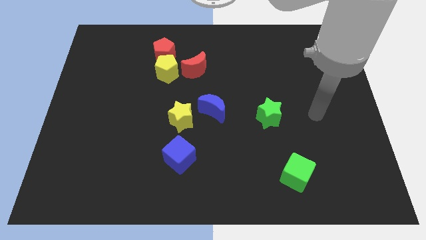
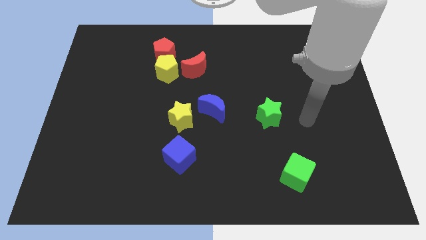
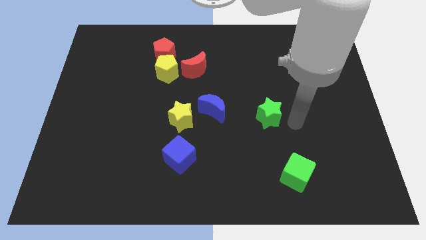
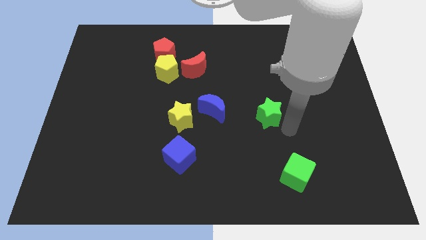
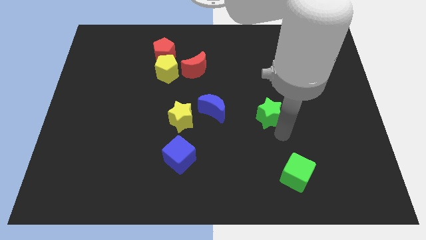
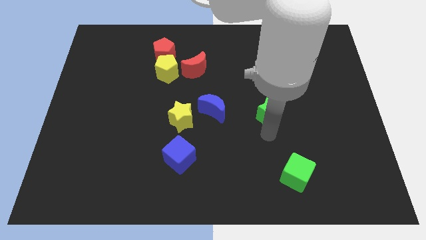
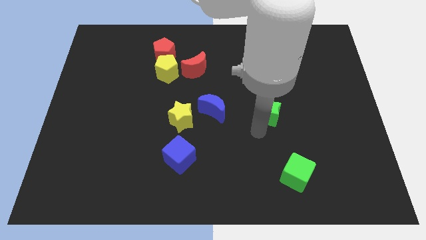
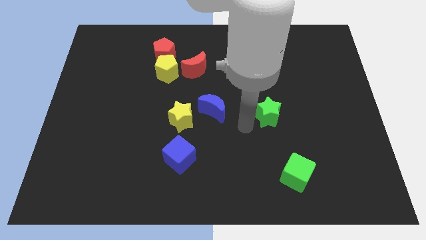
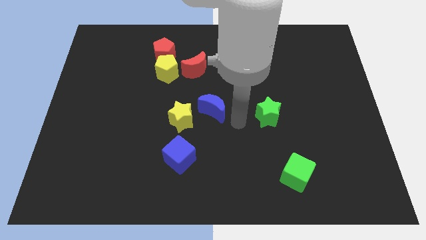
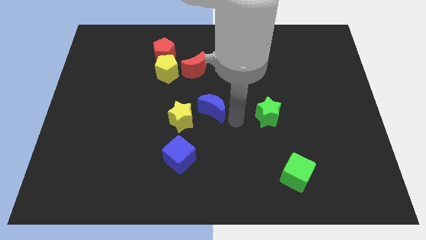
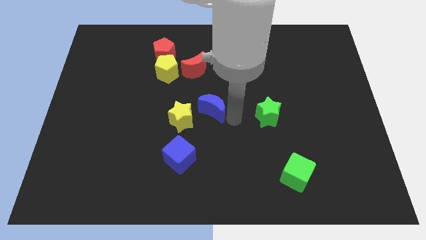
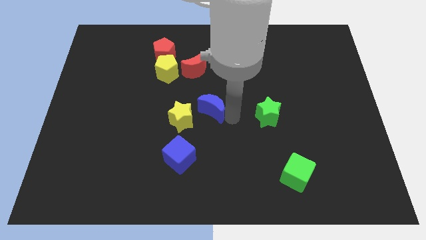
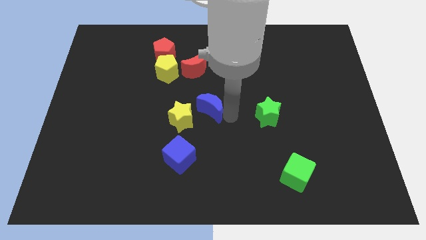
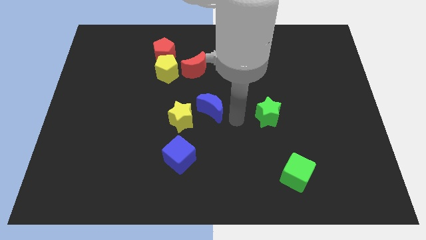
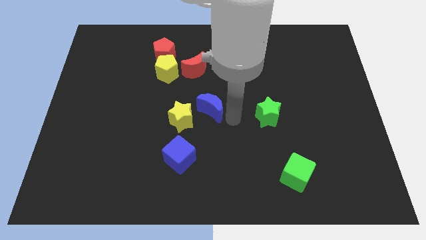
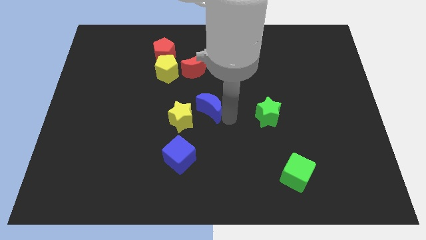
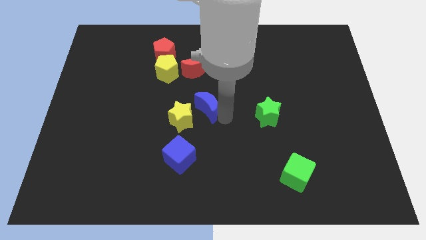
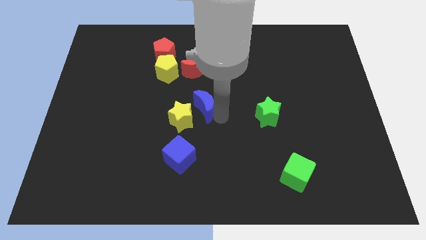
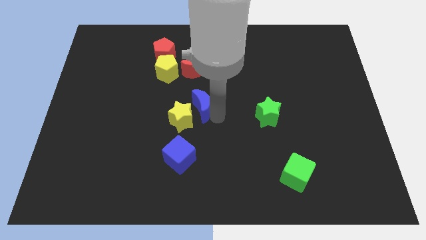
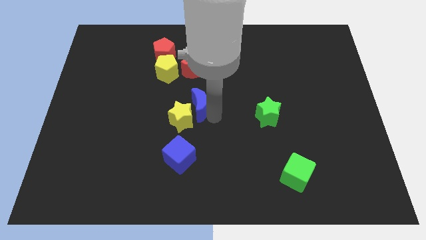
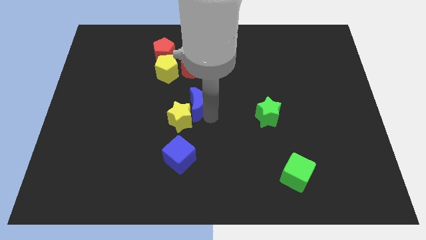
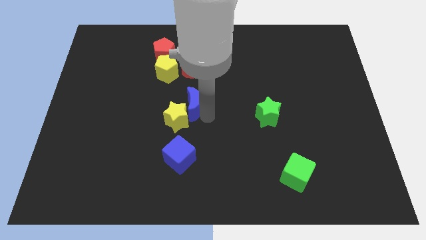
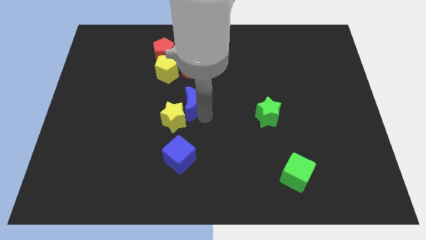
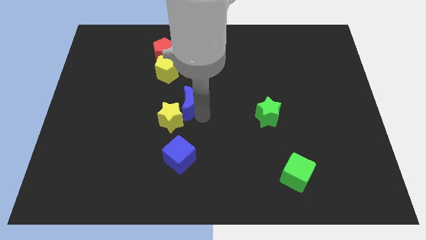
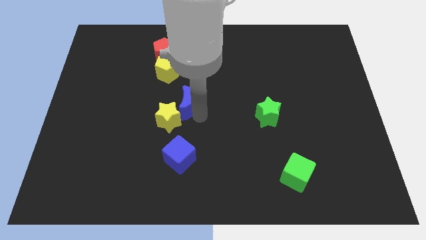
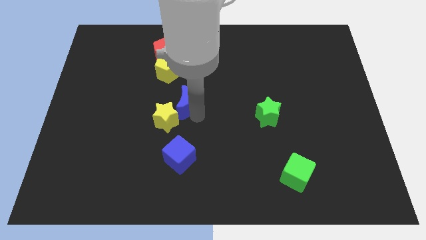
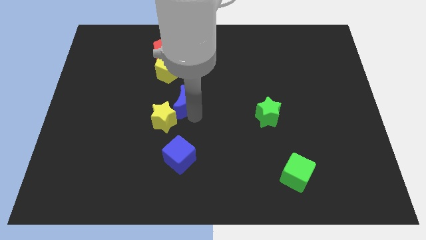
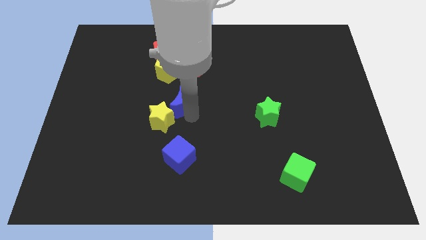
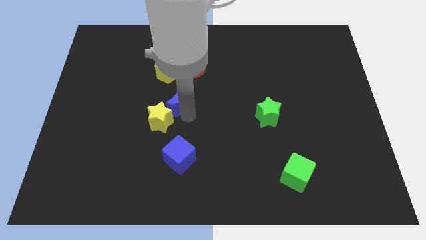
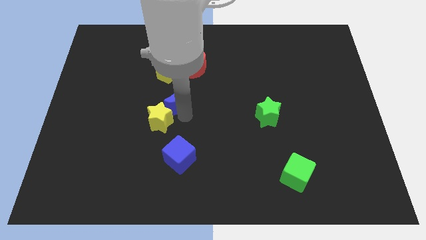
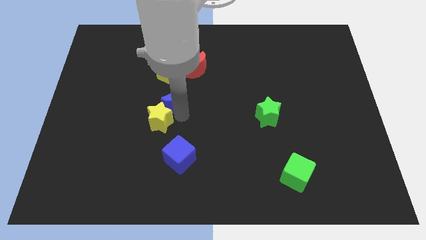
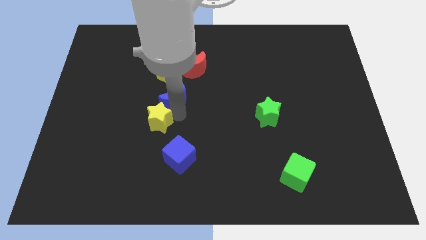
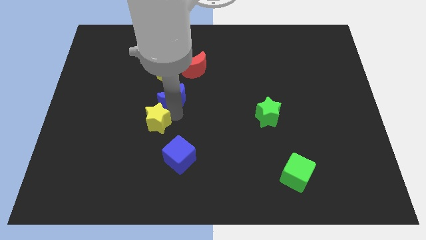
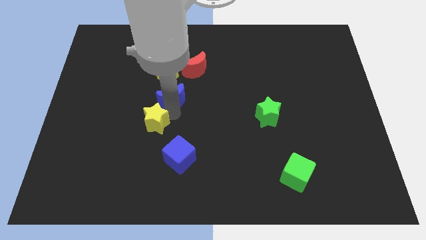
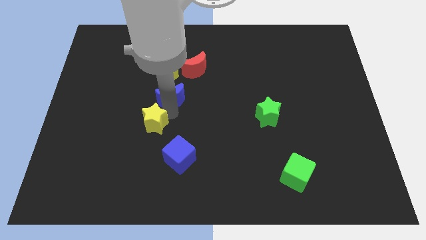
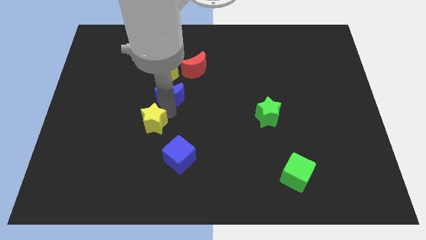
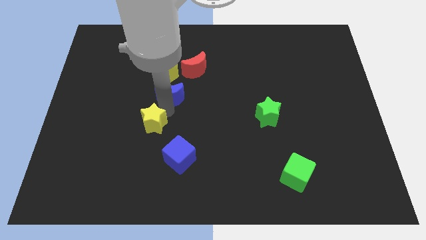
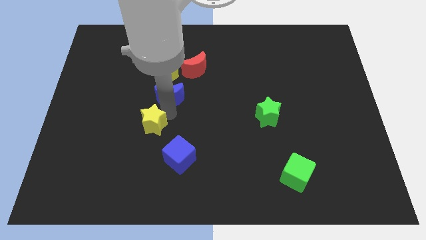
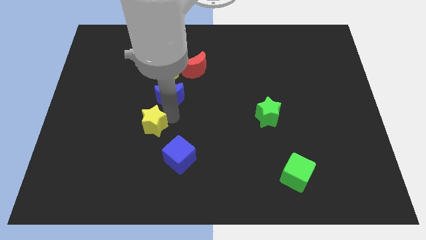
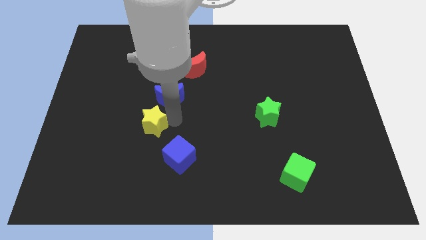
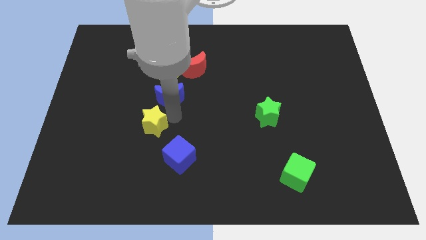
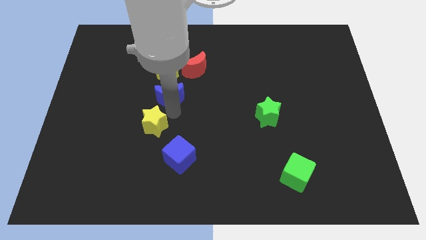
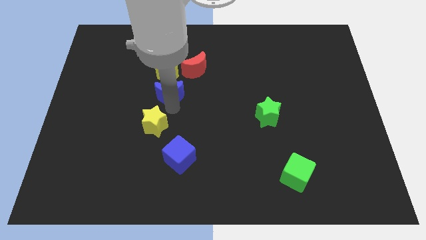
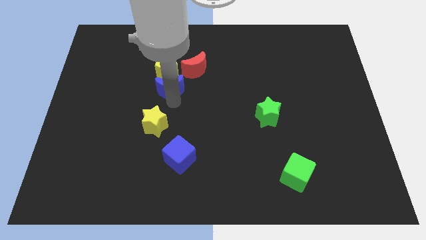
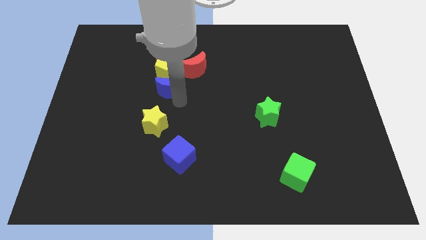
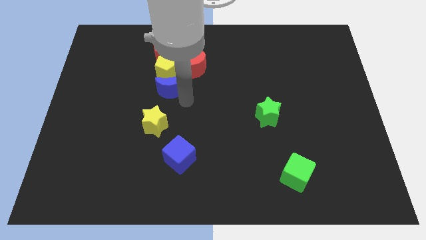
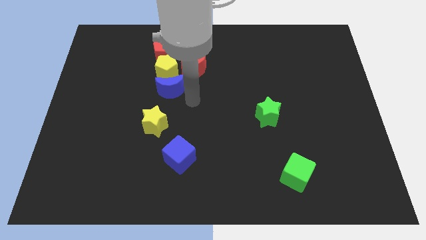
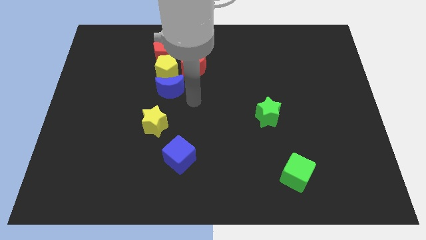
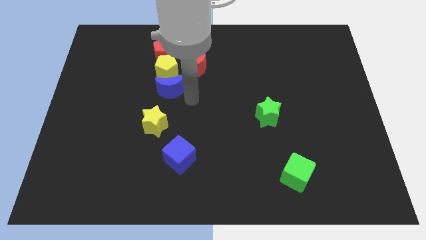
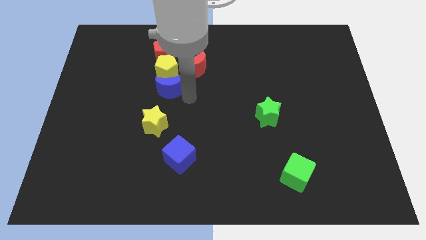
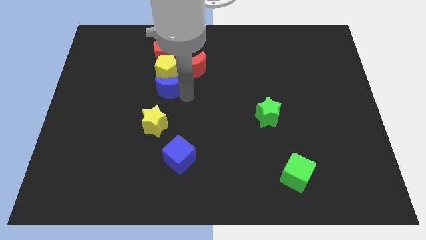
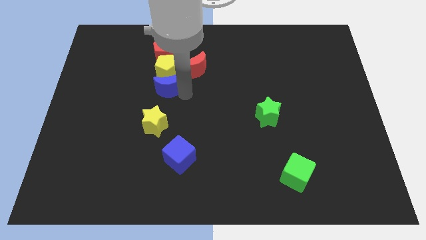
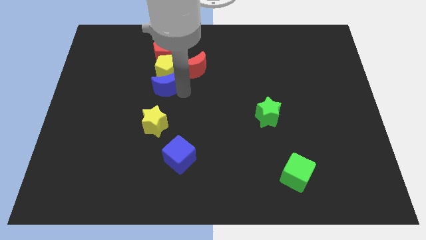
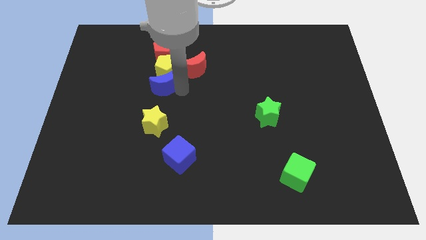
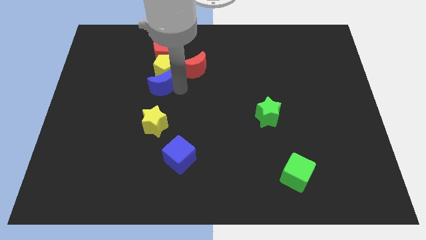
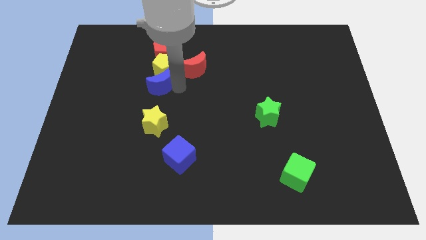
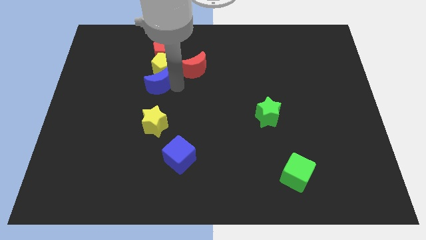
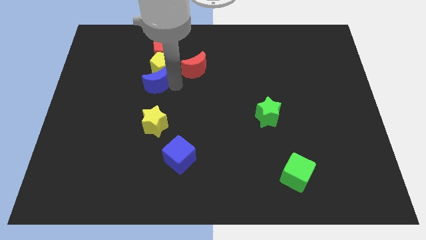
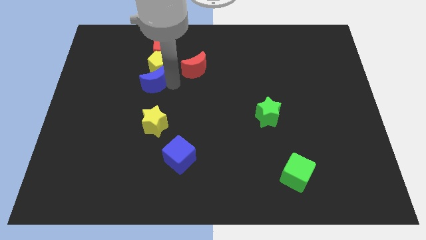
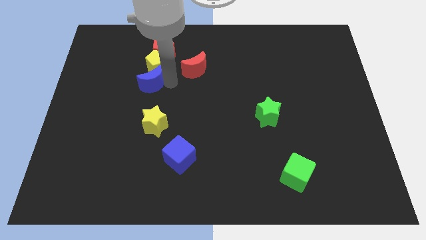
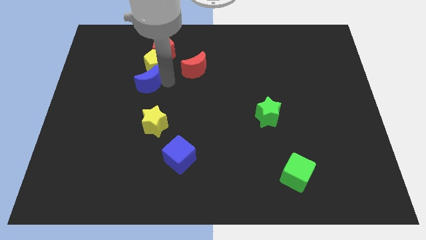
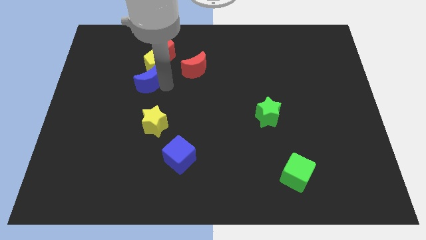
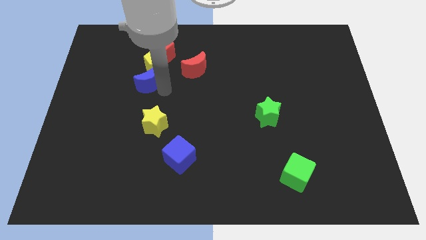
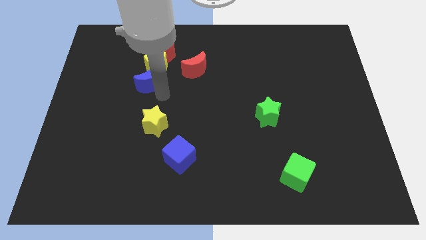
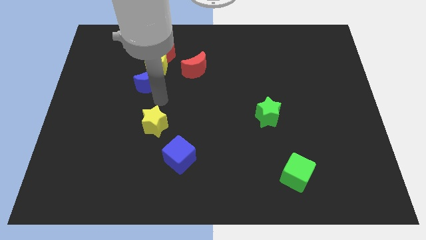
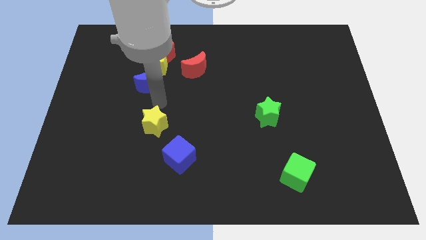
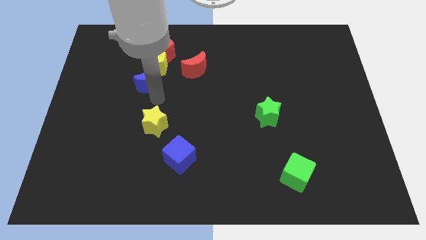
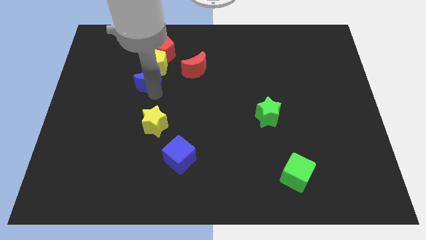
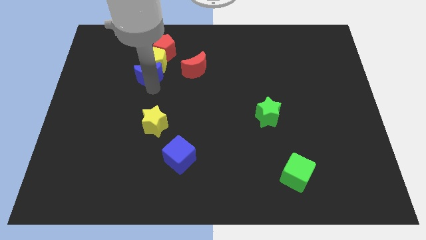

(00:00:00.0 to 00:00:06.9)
put the blue moon diagonally down and to the left of the red pentagon
